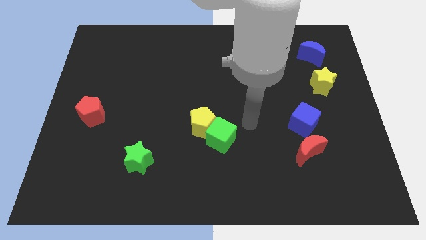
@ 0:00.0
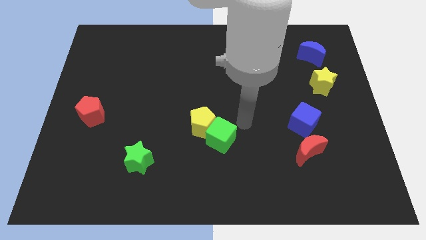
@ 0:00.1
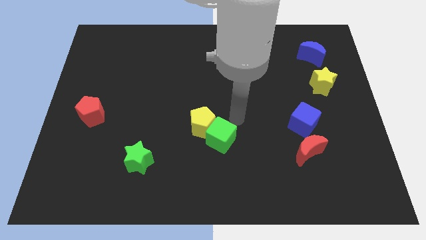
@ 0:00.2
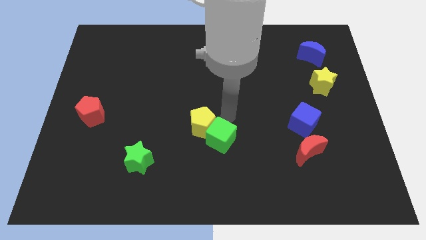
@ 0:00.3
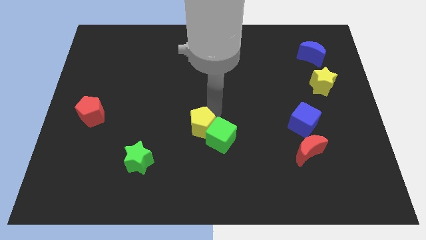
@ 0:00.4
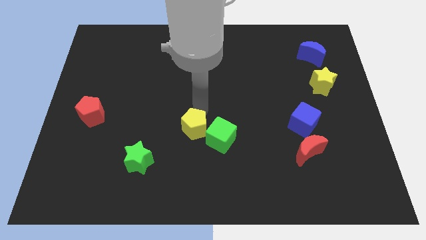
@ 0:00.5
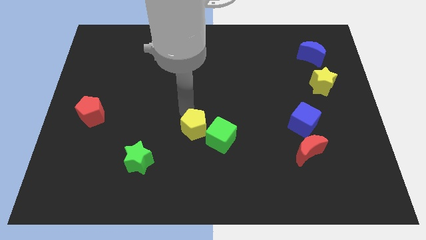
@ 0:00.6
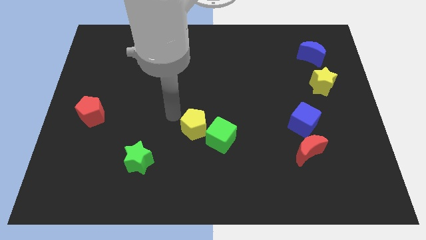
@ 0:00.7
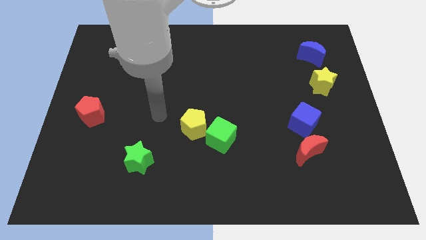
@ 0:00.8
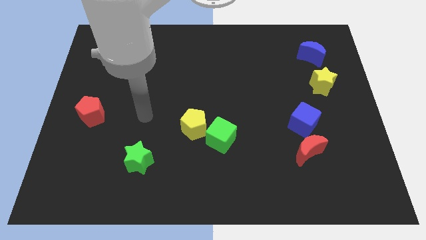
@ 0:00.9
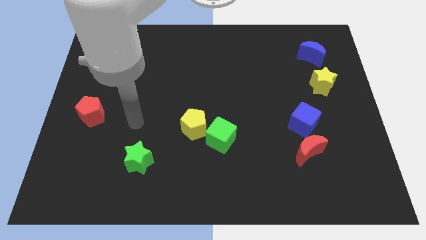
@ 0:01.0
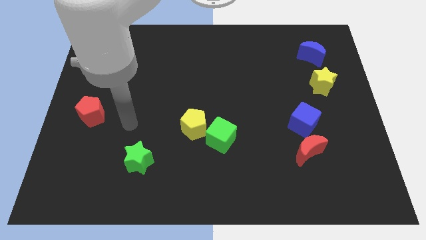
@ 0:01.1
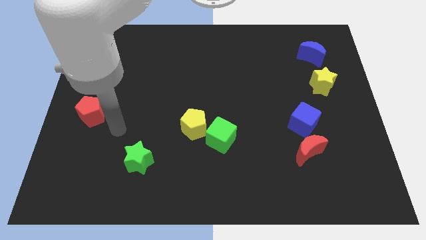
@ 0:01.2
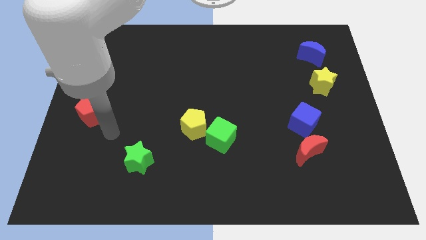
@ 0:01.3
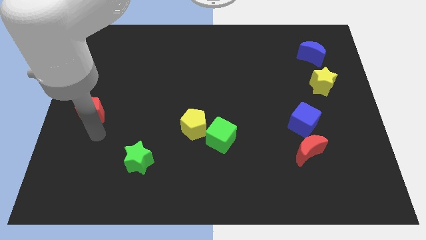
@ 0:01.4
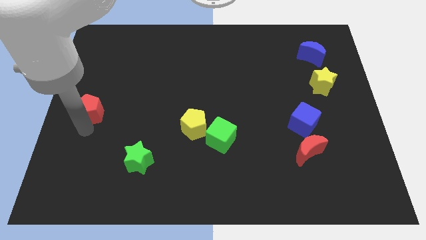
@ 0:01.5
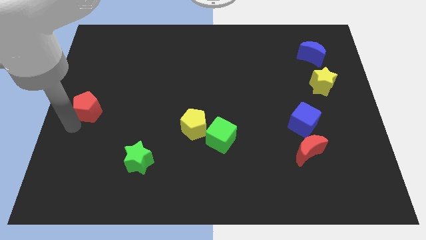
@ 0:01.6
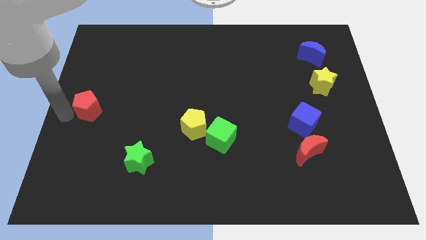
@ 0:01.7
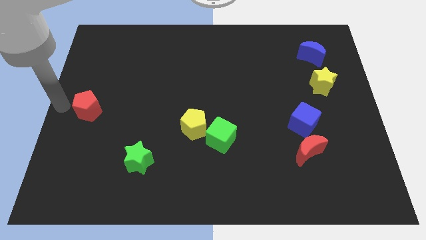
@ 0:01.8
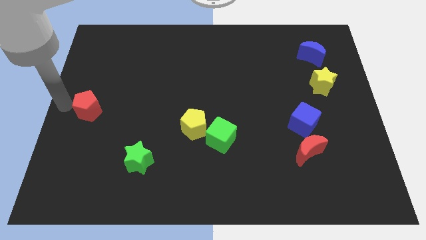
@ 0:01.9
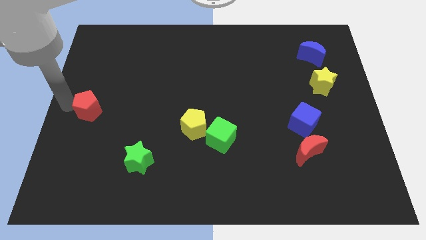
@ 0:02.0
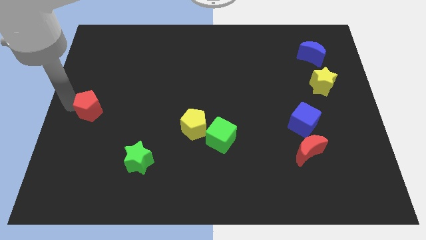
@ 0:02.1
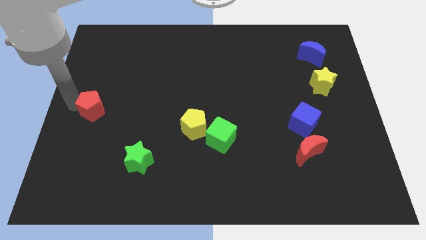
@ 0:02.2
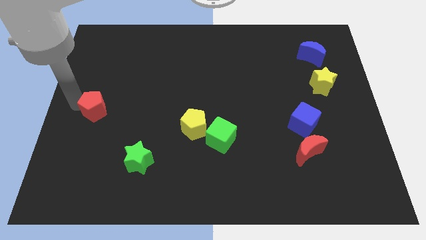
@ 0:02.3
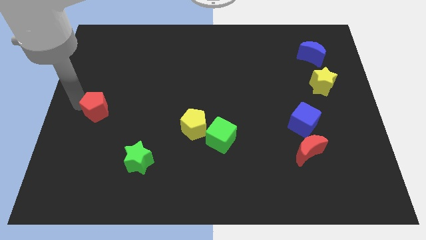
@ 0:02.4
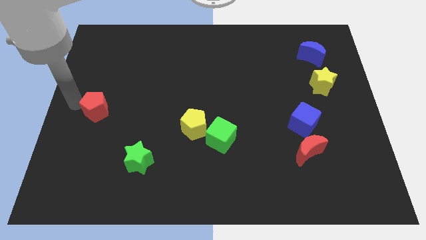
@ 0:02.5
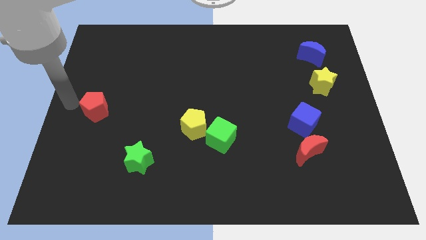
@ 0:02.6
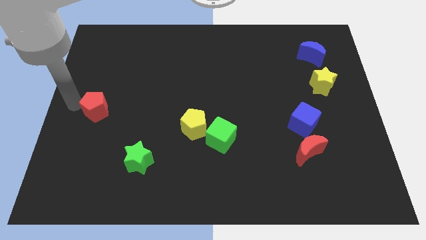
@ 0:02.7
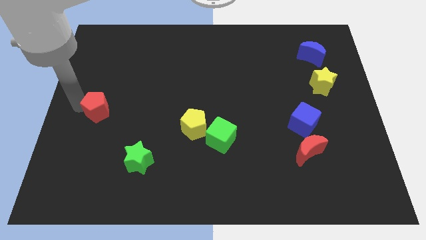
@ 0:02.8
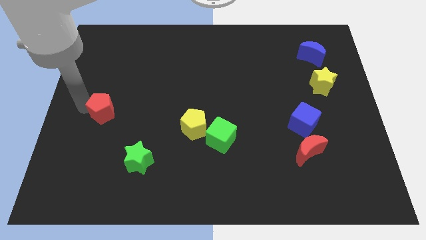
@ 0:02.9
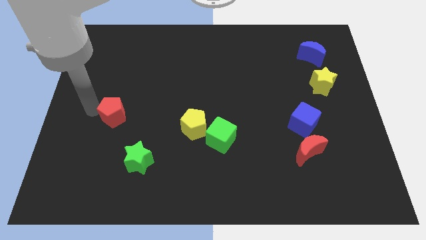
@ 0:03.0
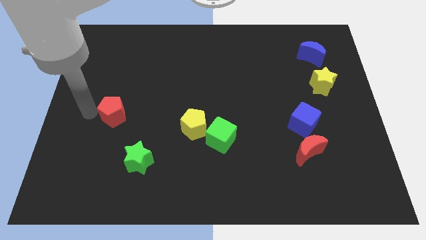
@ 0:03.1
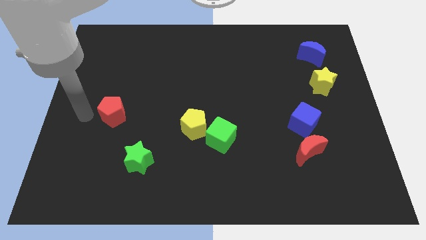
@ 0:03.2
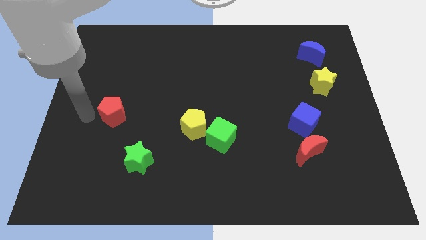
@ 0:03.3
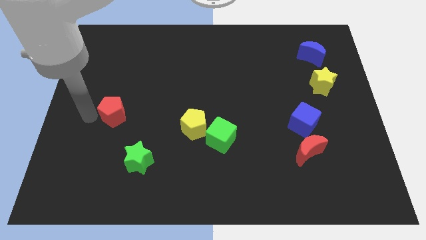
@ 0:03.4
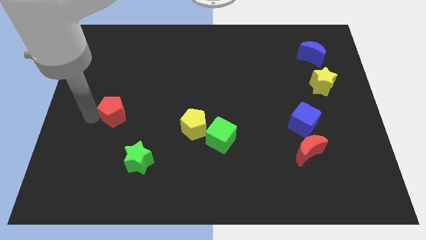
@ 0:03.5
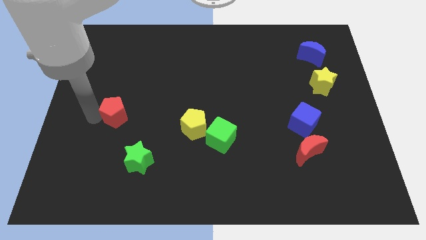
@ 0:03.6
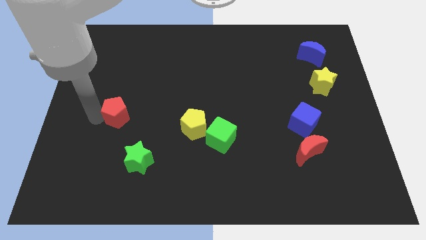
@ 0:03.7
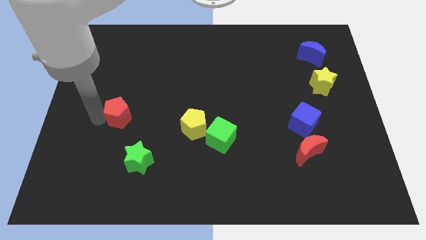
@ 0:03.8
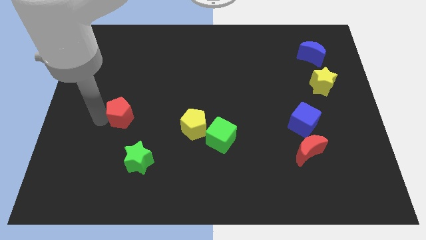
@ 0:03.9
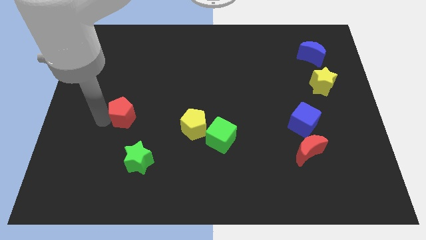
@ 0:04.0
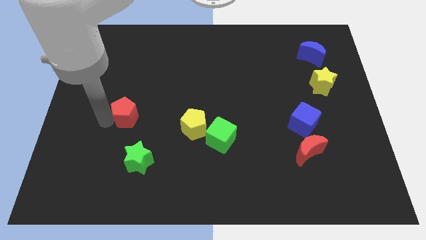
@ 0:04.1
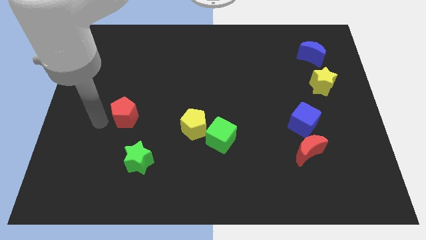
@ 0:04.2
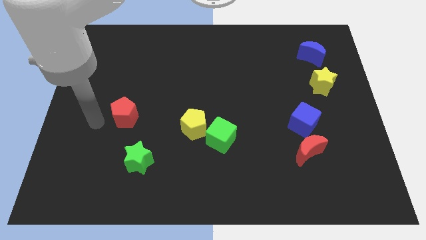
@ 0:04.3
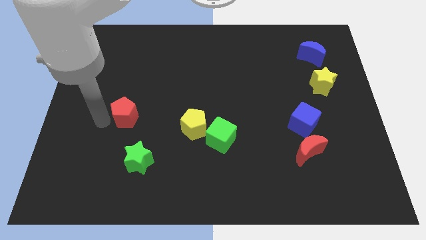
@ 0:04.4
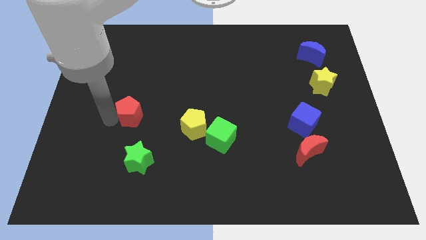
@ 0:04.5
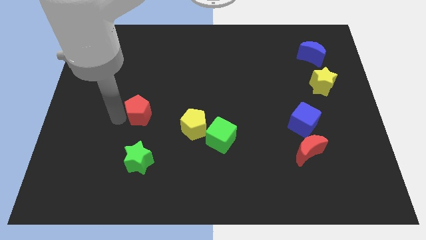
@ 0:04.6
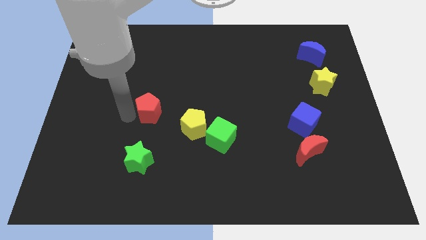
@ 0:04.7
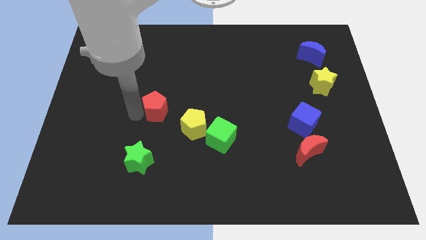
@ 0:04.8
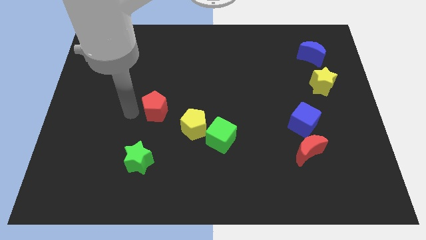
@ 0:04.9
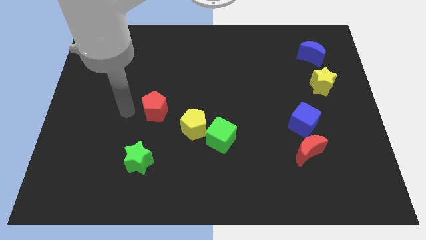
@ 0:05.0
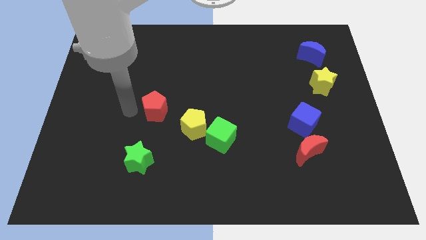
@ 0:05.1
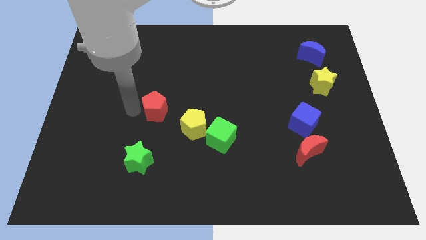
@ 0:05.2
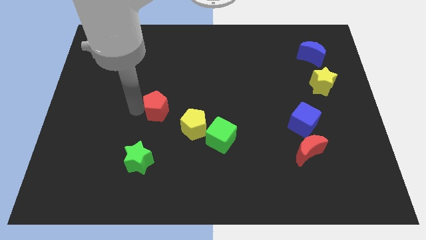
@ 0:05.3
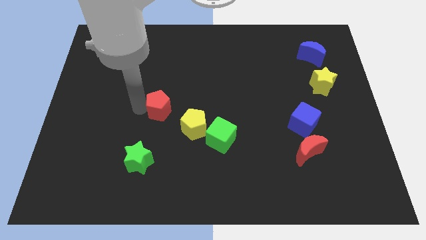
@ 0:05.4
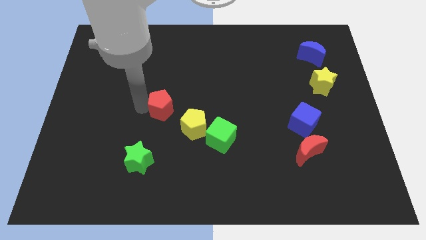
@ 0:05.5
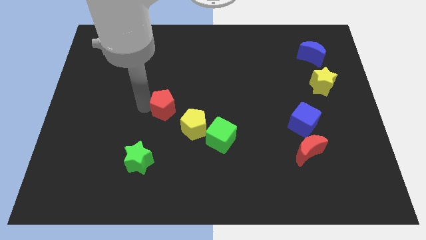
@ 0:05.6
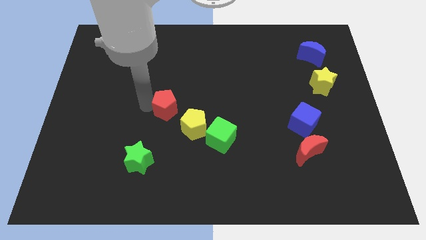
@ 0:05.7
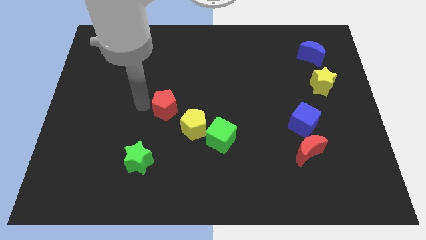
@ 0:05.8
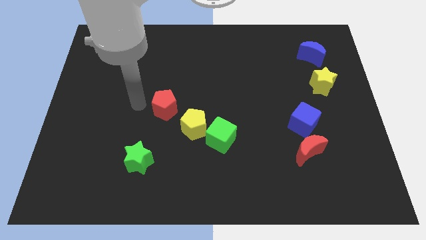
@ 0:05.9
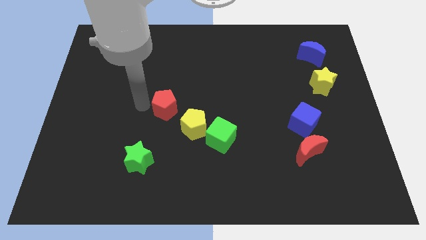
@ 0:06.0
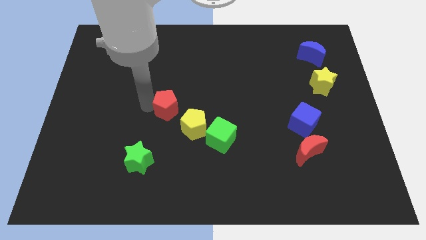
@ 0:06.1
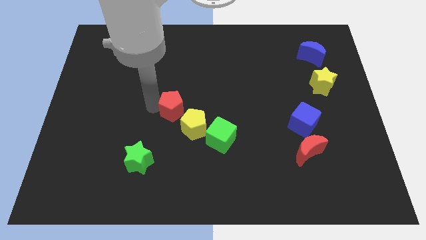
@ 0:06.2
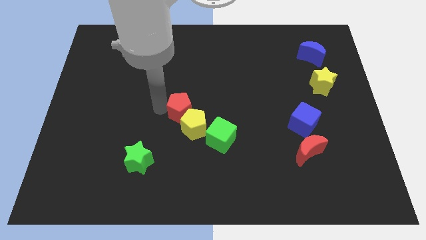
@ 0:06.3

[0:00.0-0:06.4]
slide the red pentagon to the right

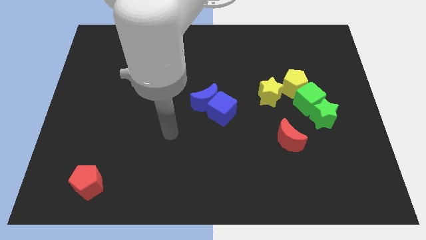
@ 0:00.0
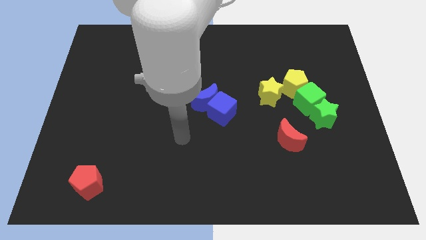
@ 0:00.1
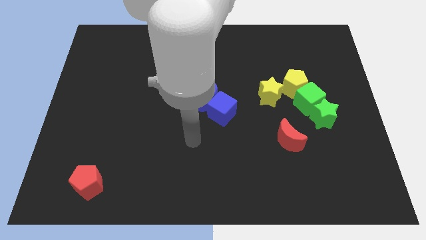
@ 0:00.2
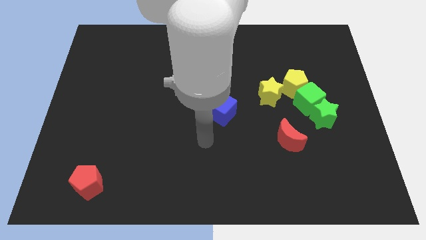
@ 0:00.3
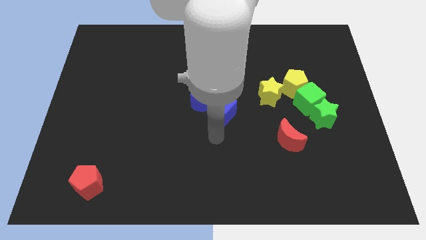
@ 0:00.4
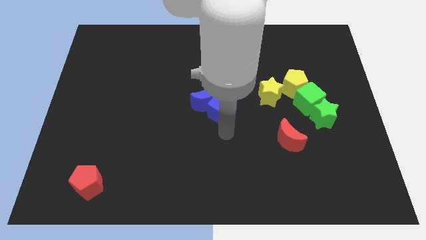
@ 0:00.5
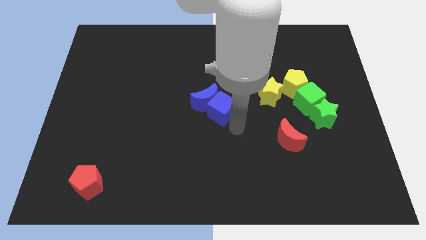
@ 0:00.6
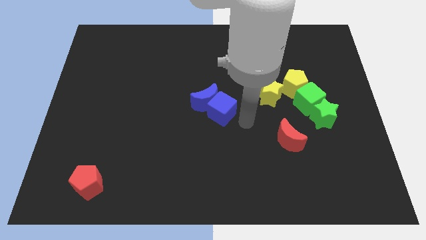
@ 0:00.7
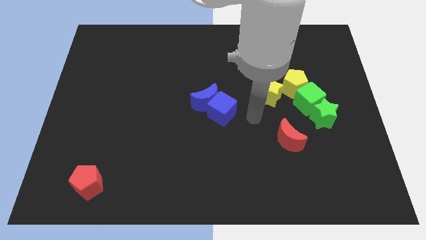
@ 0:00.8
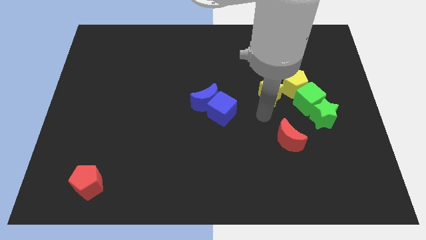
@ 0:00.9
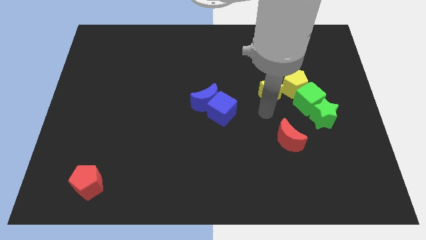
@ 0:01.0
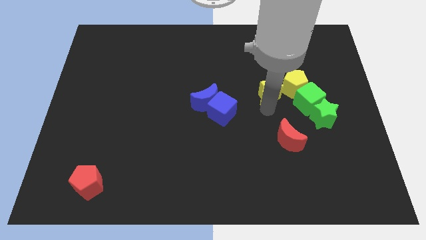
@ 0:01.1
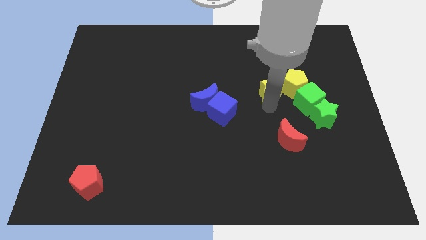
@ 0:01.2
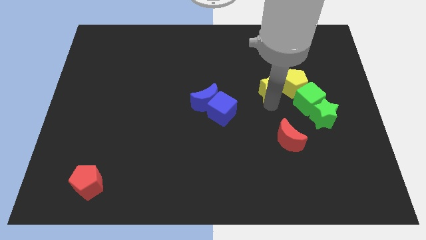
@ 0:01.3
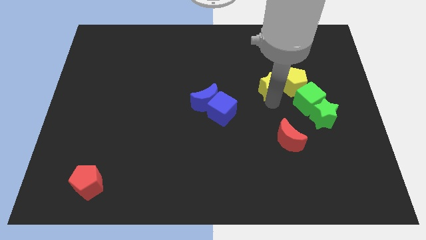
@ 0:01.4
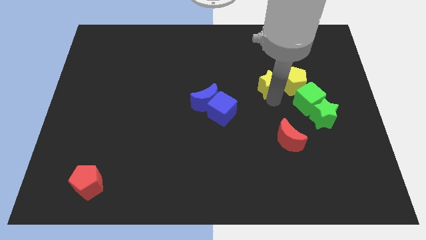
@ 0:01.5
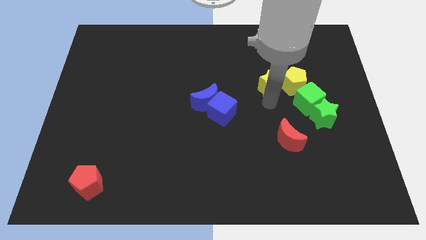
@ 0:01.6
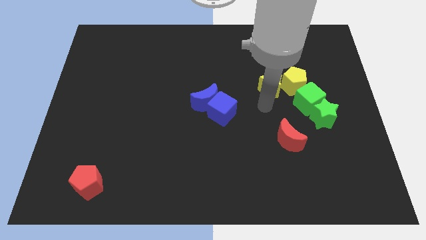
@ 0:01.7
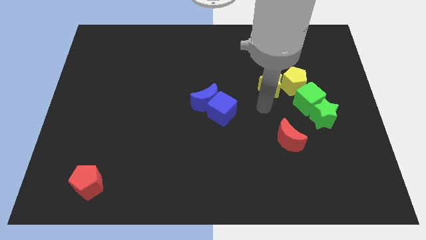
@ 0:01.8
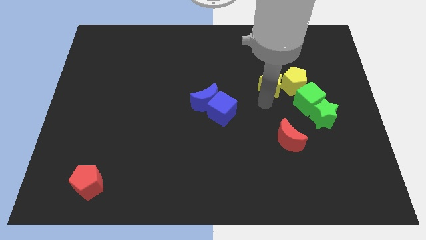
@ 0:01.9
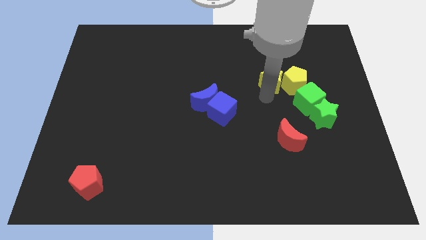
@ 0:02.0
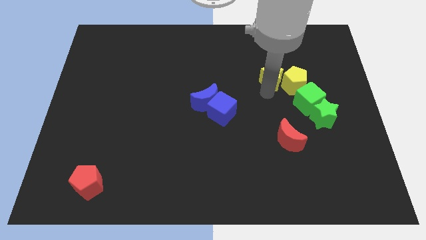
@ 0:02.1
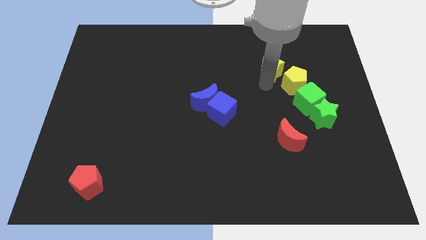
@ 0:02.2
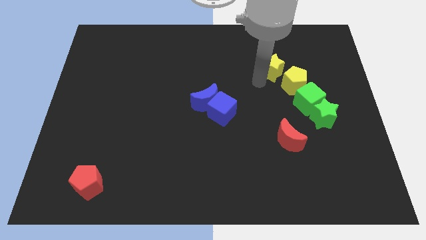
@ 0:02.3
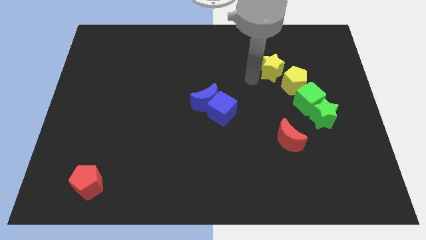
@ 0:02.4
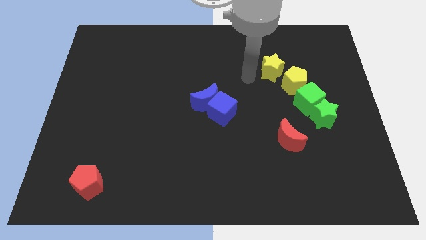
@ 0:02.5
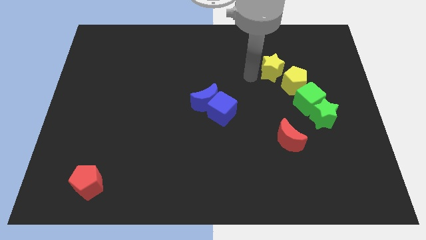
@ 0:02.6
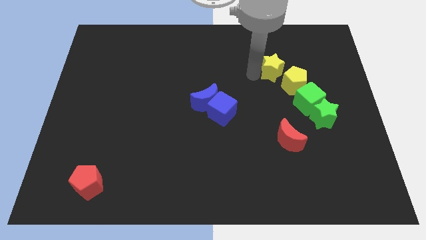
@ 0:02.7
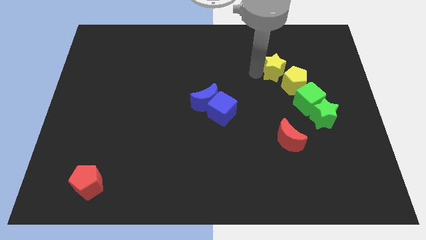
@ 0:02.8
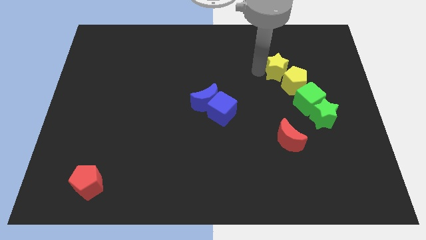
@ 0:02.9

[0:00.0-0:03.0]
push the yellow star upwards and then to the right a little
